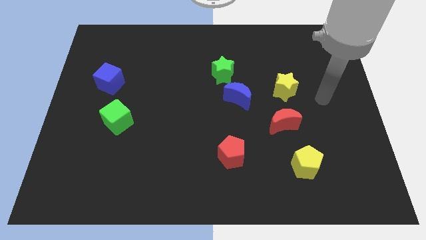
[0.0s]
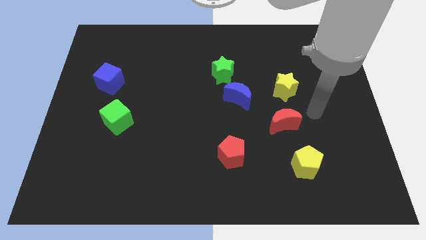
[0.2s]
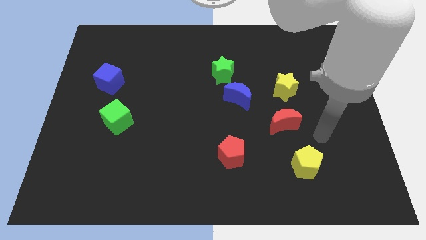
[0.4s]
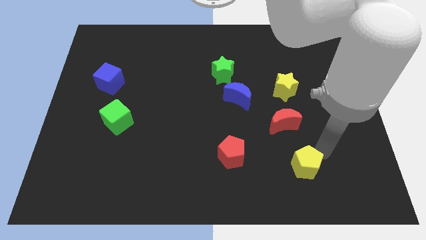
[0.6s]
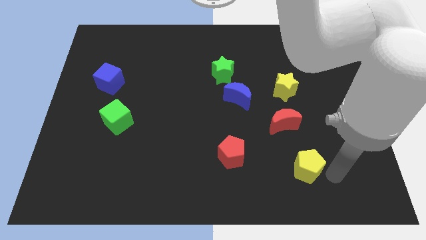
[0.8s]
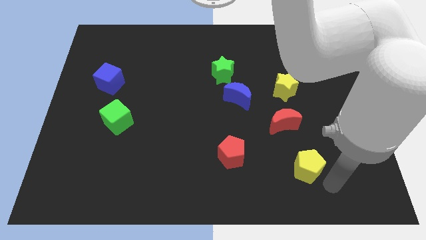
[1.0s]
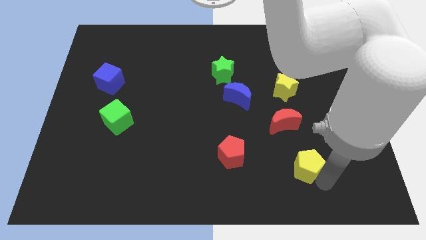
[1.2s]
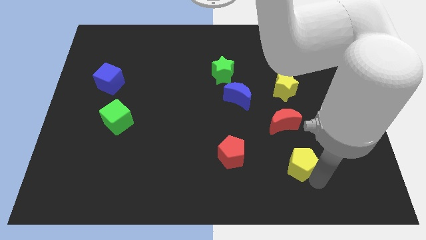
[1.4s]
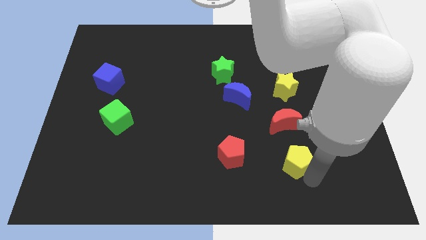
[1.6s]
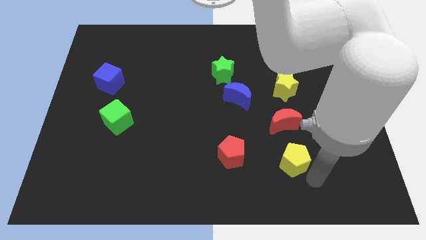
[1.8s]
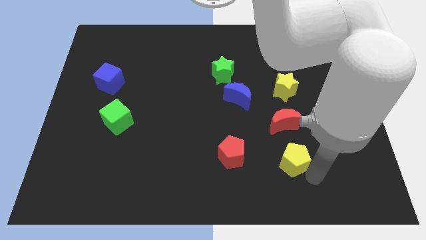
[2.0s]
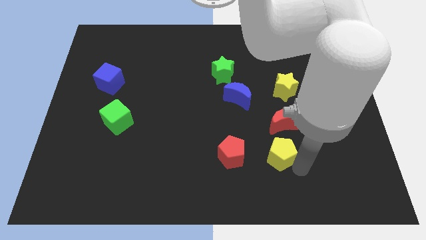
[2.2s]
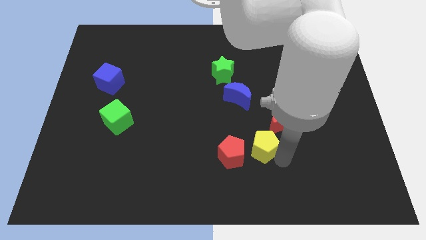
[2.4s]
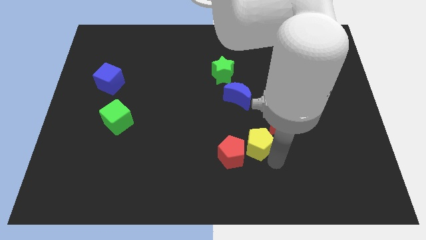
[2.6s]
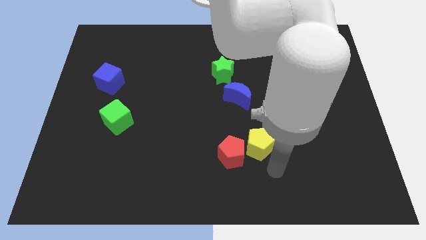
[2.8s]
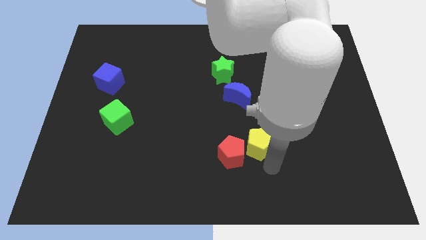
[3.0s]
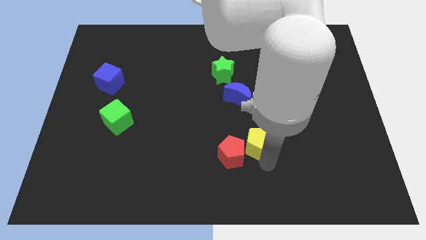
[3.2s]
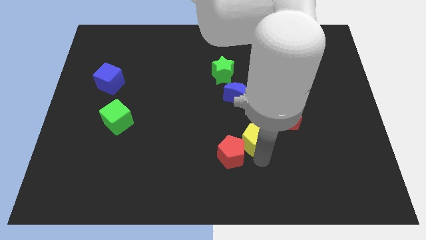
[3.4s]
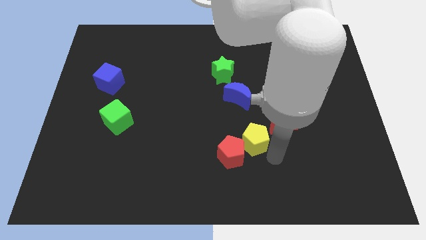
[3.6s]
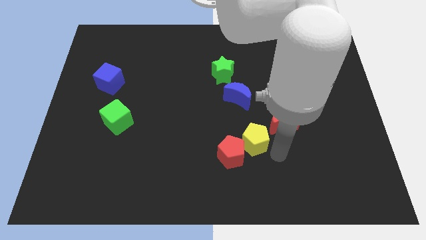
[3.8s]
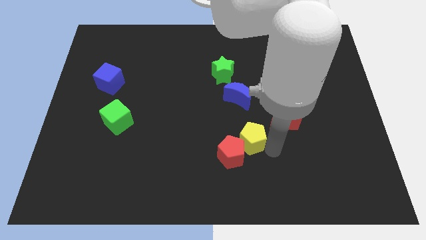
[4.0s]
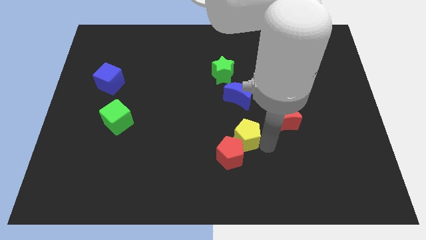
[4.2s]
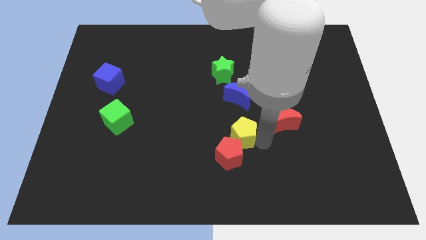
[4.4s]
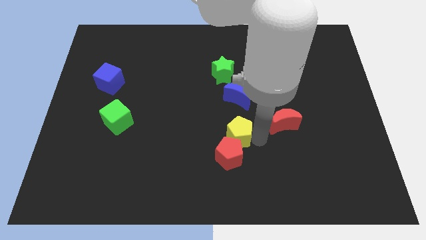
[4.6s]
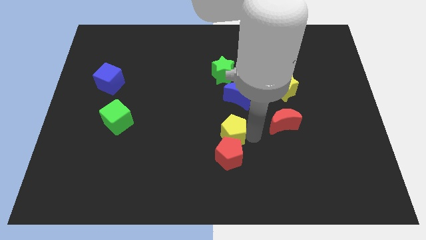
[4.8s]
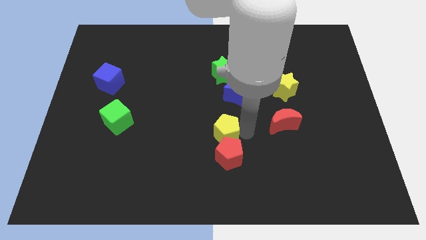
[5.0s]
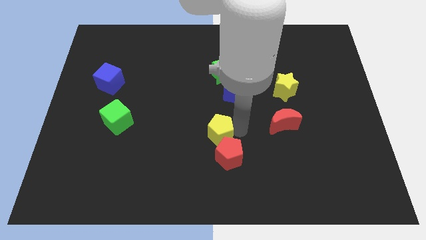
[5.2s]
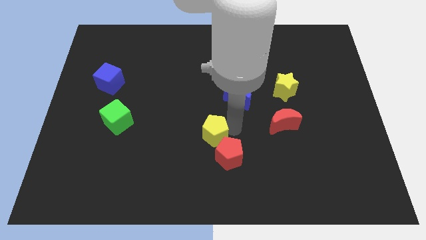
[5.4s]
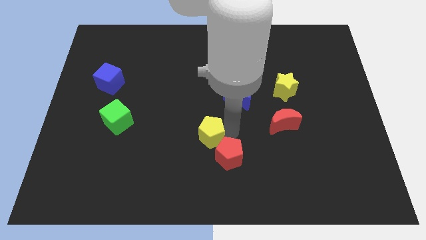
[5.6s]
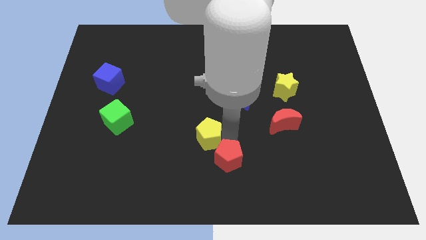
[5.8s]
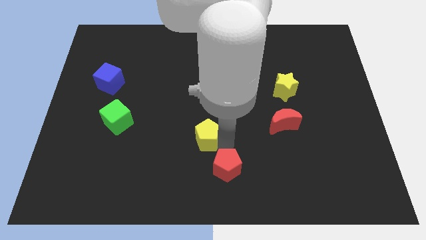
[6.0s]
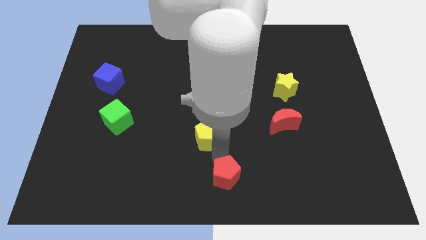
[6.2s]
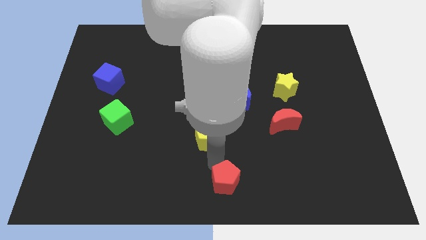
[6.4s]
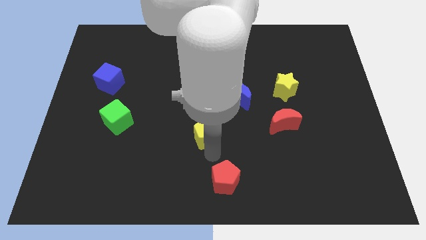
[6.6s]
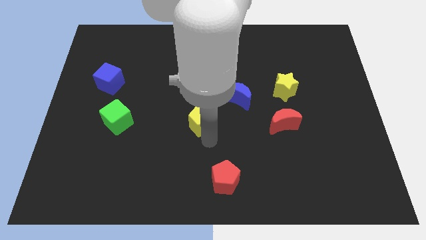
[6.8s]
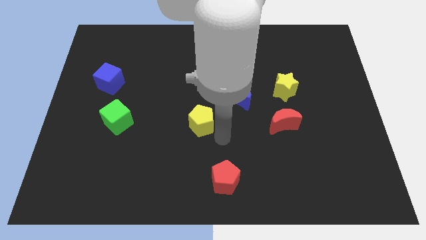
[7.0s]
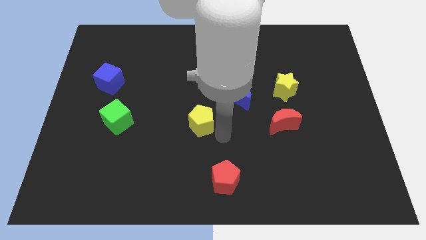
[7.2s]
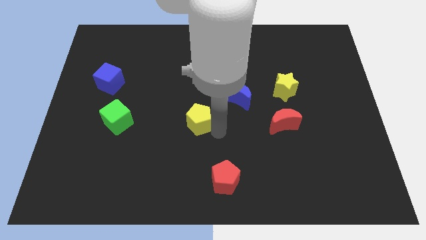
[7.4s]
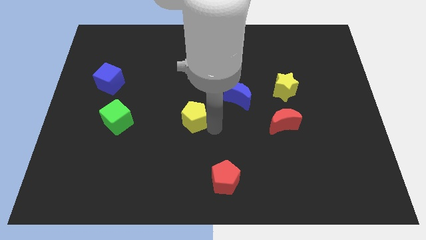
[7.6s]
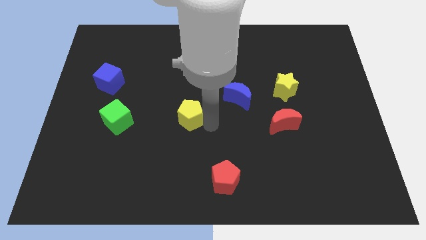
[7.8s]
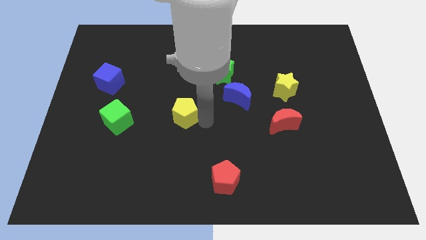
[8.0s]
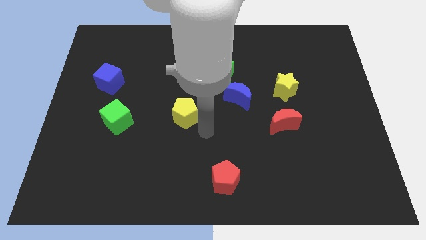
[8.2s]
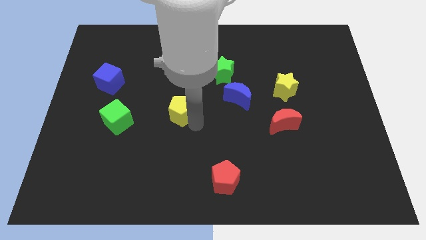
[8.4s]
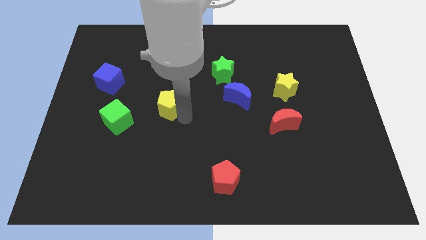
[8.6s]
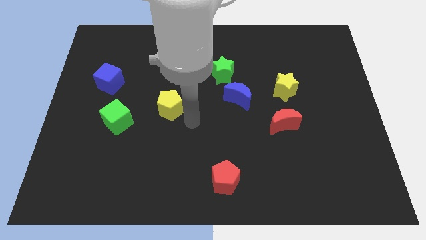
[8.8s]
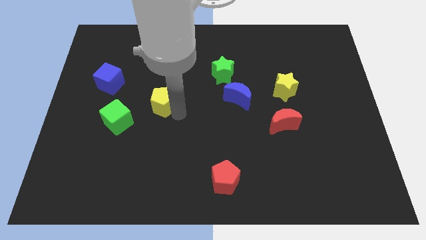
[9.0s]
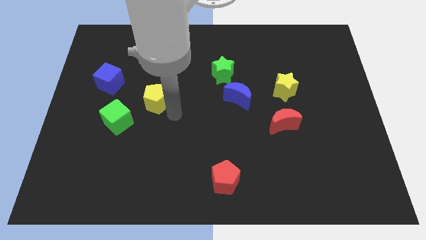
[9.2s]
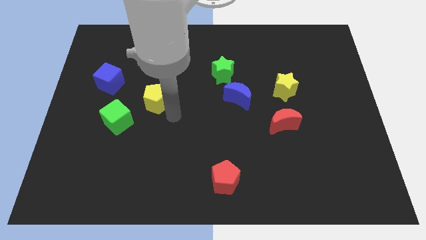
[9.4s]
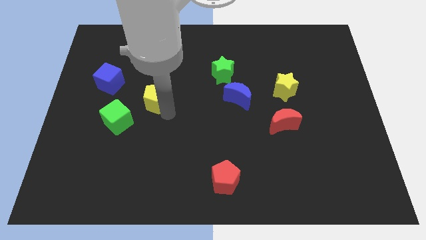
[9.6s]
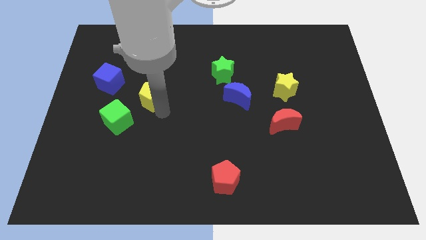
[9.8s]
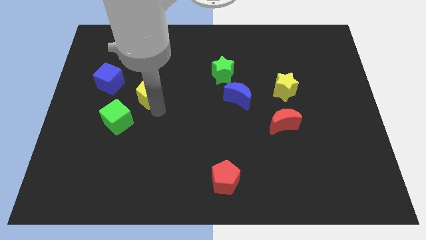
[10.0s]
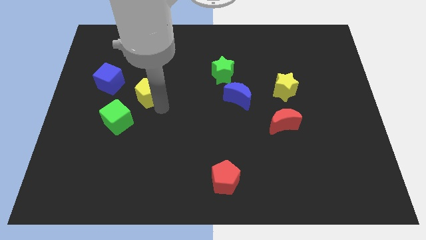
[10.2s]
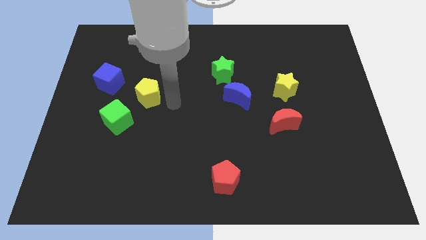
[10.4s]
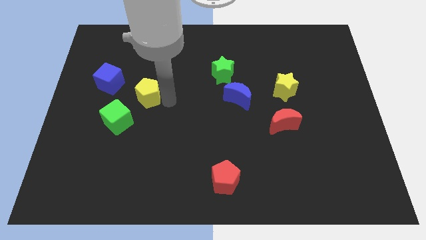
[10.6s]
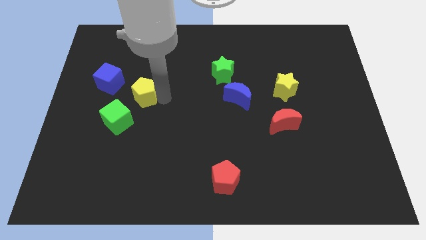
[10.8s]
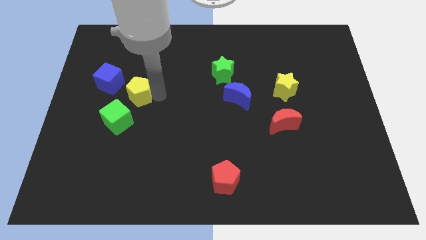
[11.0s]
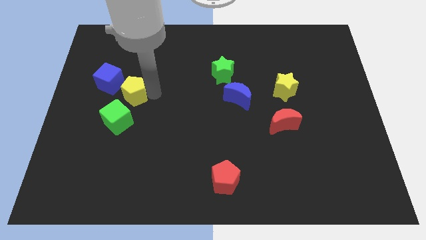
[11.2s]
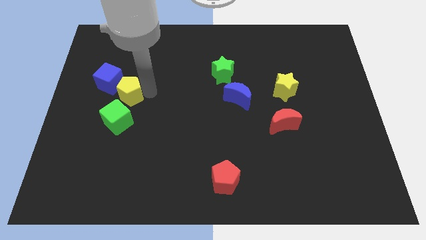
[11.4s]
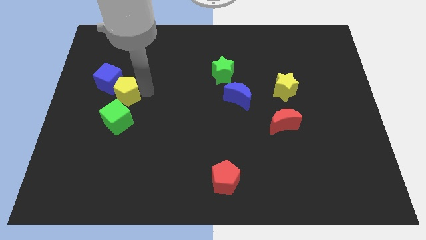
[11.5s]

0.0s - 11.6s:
move the yellow pentagon towards the blue cube

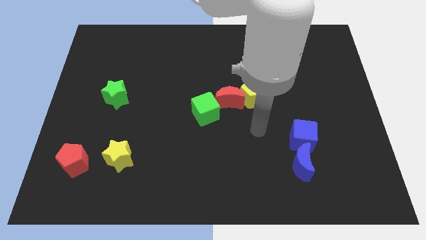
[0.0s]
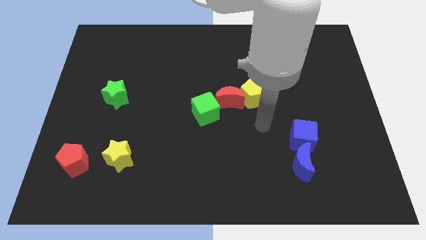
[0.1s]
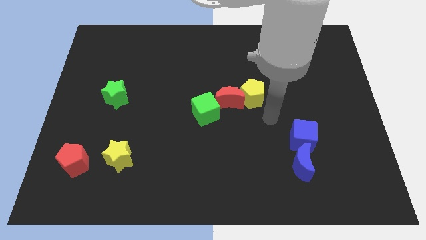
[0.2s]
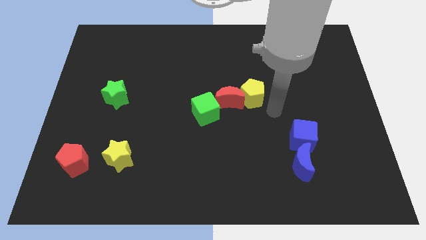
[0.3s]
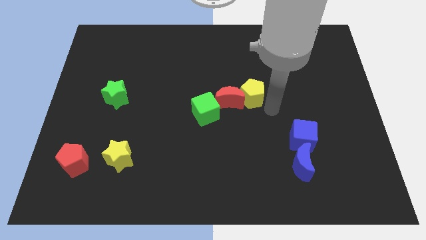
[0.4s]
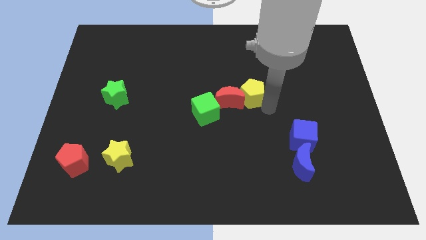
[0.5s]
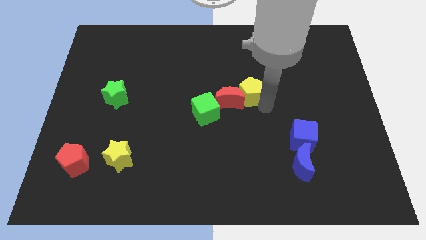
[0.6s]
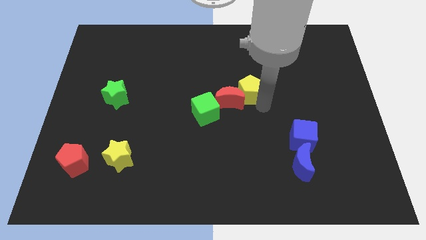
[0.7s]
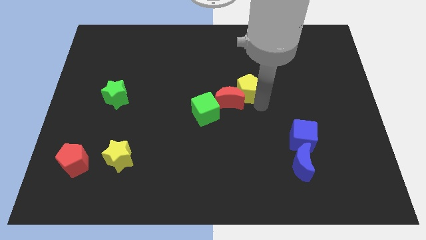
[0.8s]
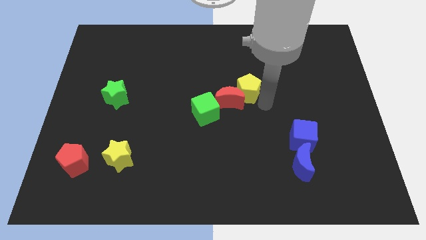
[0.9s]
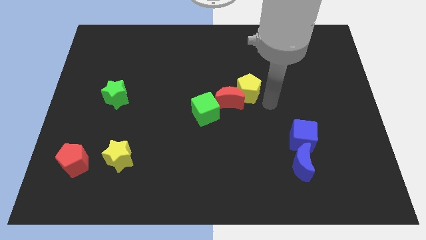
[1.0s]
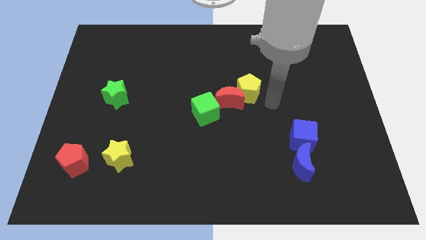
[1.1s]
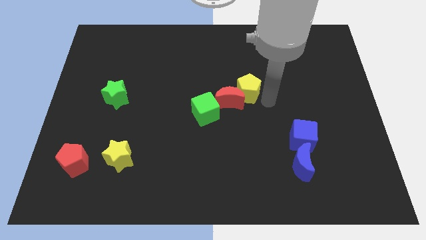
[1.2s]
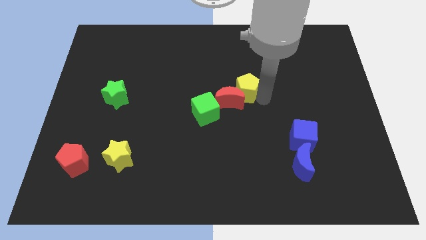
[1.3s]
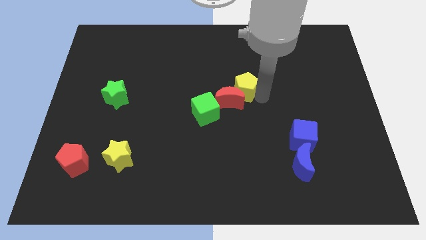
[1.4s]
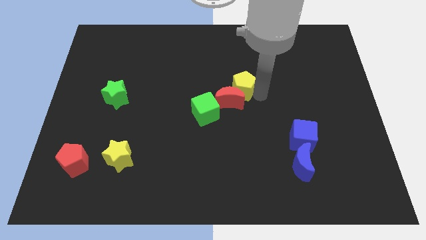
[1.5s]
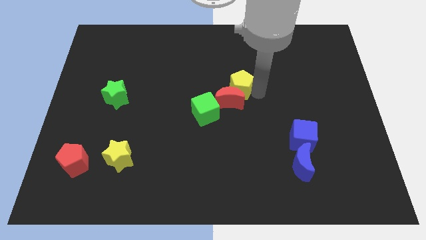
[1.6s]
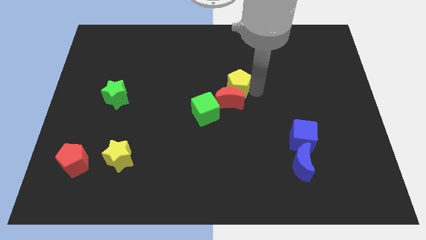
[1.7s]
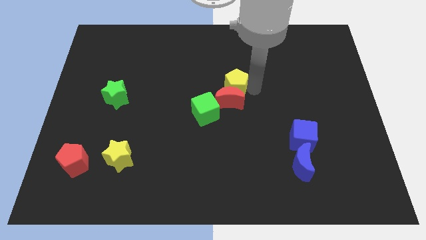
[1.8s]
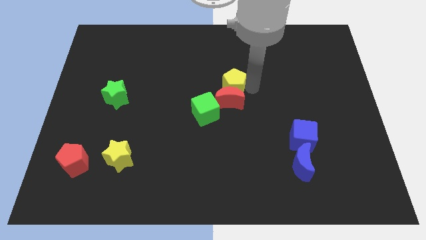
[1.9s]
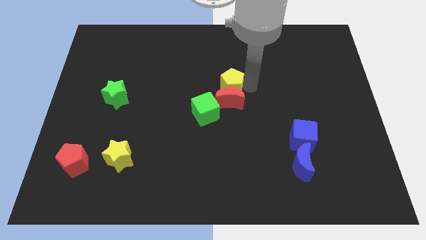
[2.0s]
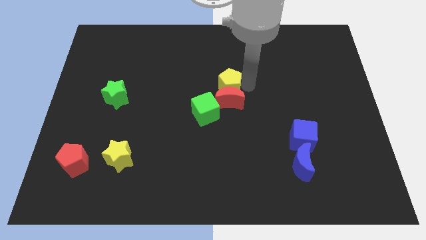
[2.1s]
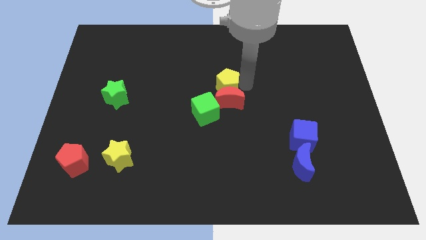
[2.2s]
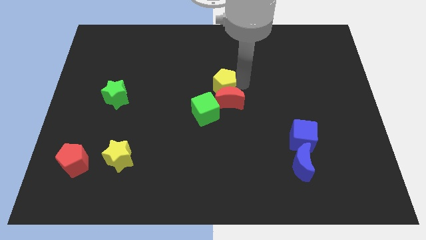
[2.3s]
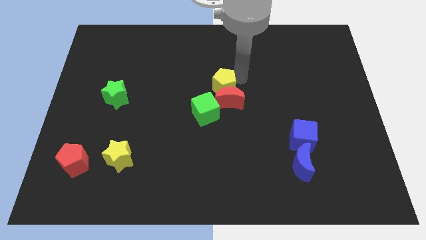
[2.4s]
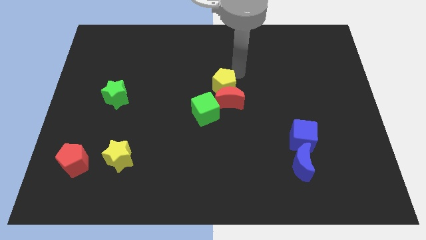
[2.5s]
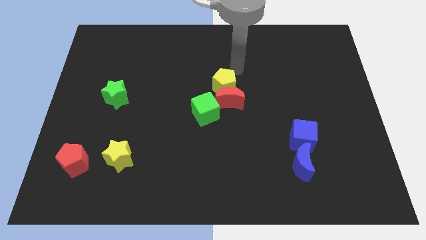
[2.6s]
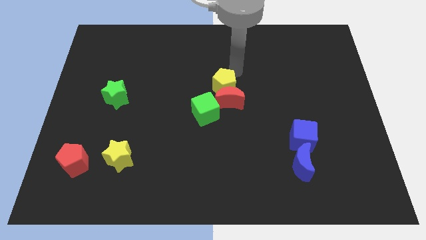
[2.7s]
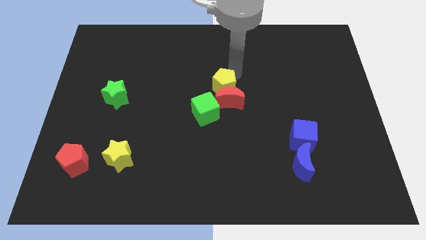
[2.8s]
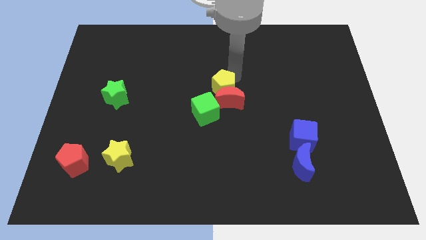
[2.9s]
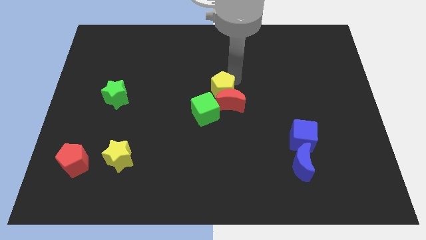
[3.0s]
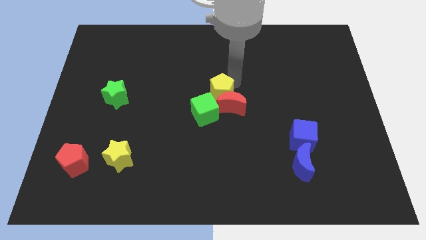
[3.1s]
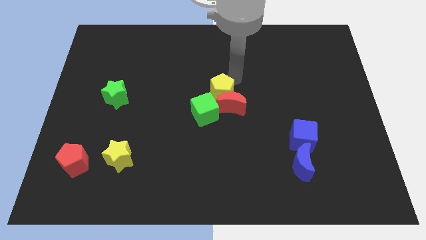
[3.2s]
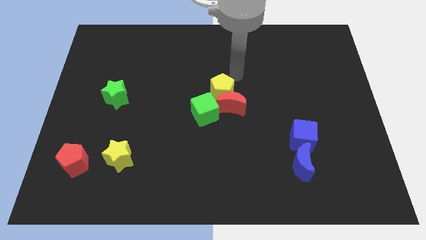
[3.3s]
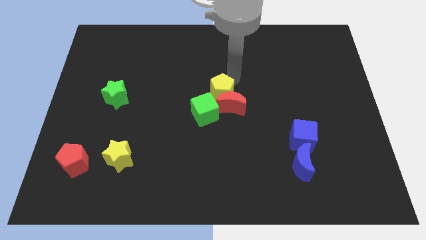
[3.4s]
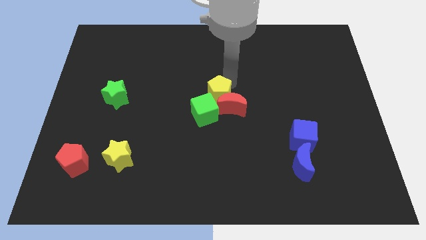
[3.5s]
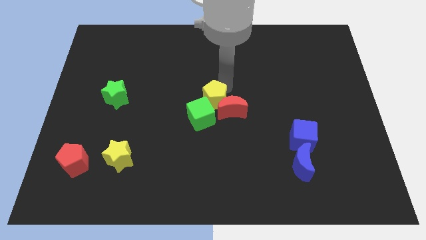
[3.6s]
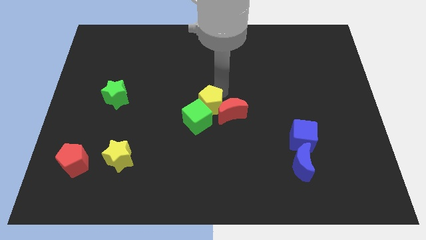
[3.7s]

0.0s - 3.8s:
move the yellow pentagon to the green cube
